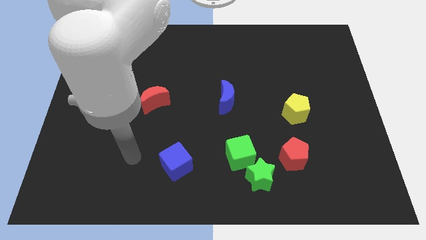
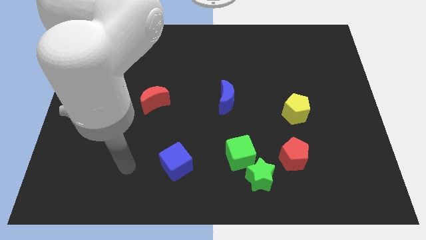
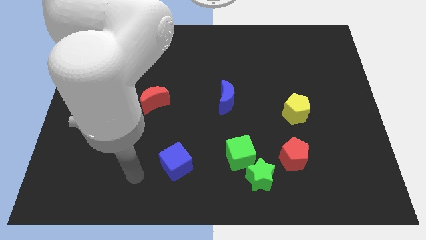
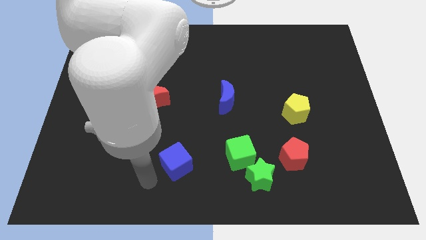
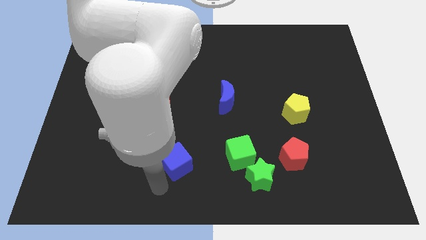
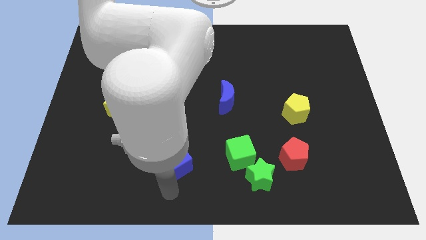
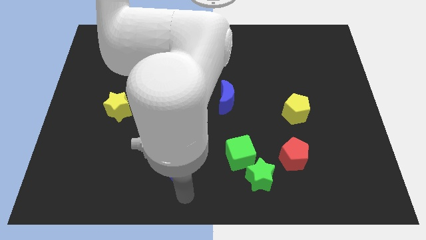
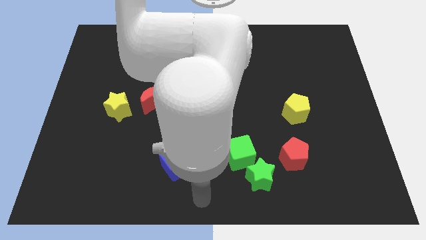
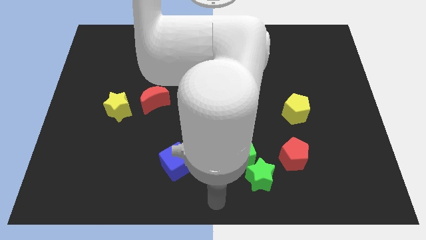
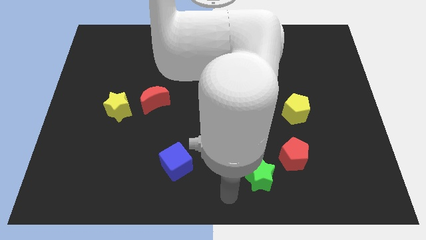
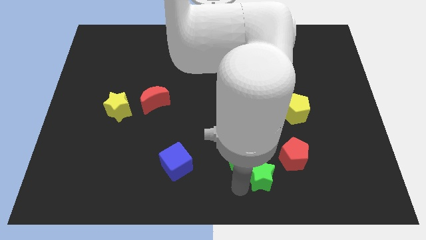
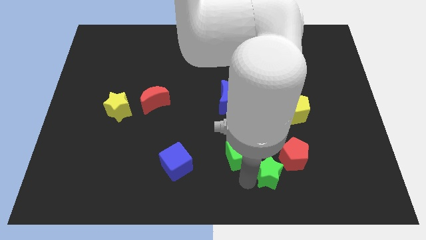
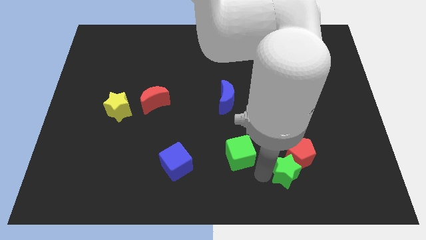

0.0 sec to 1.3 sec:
pull the green cube apart from the green star

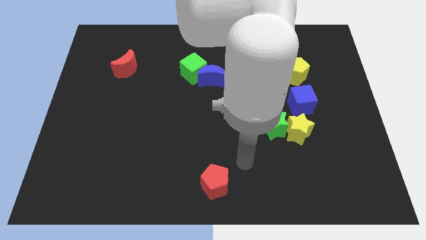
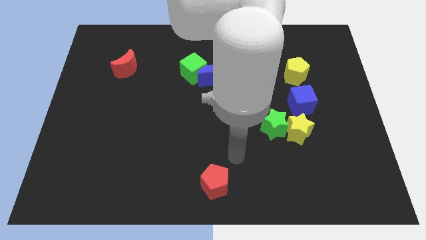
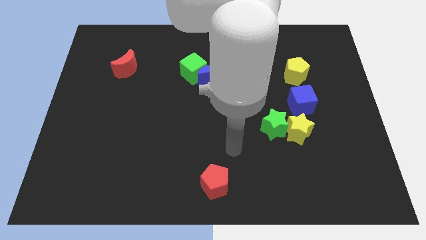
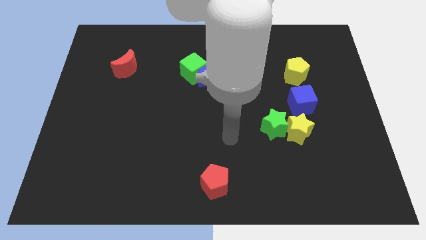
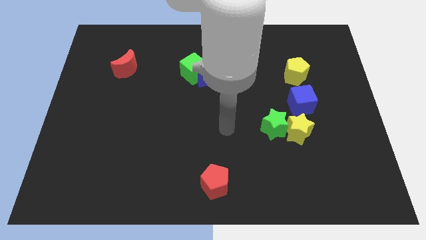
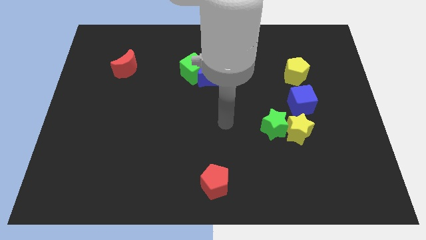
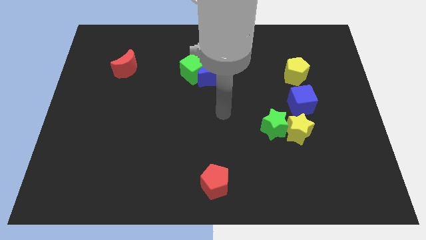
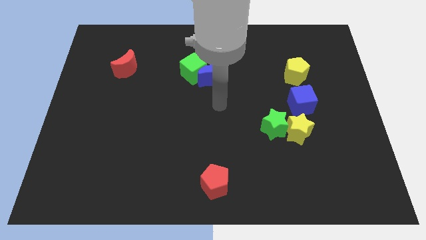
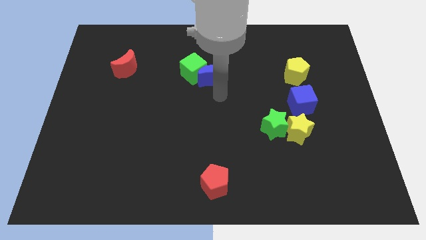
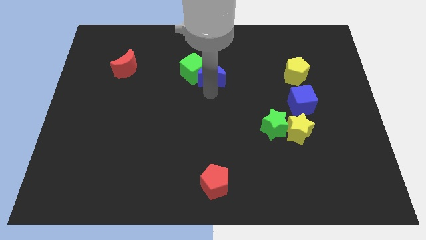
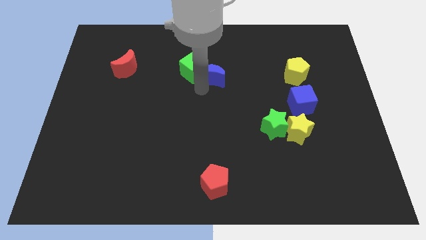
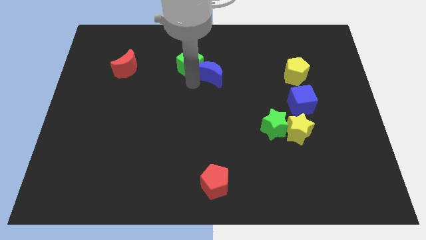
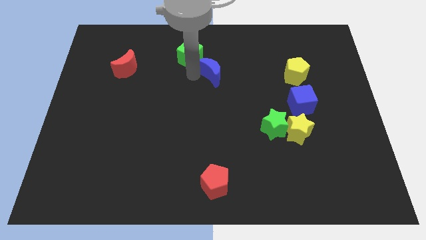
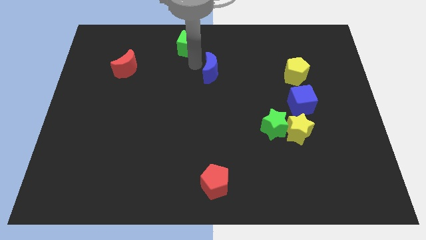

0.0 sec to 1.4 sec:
pull the blue moon apart from the green cube

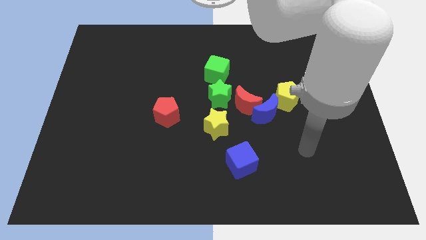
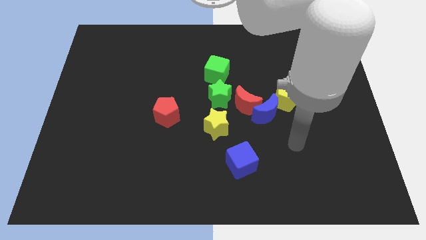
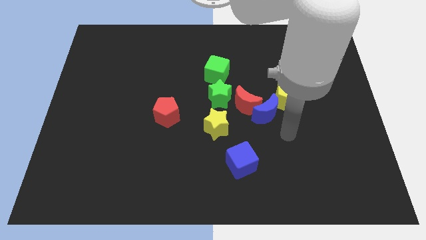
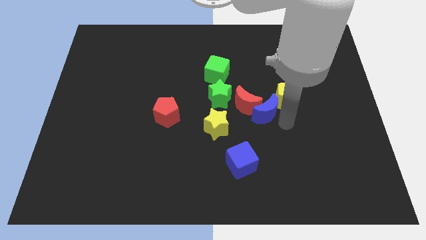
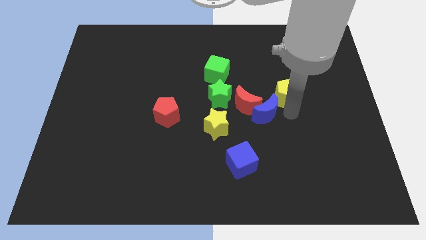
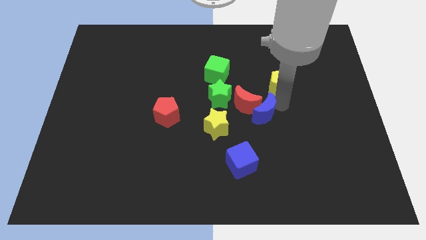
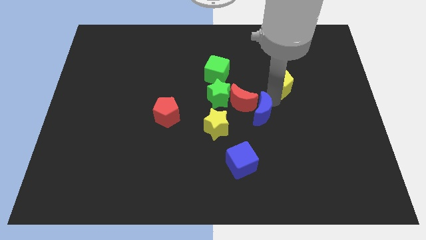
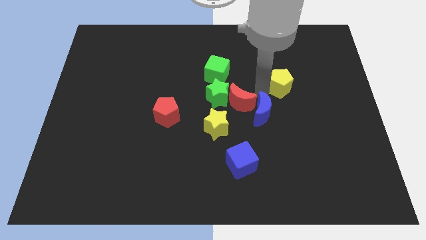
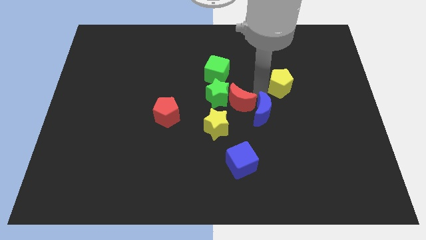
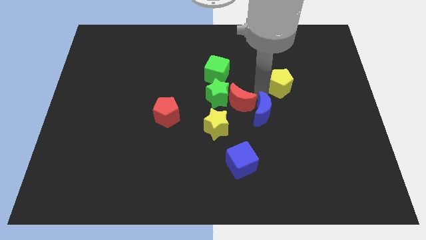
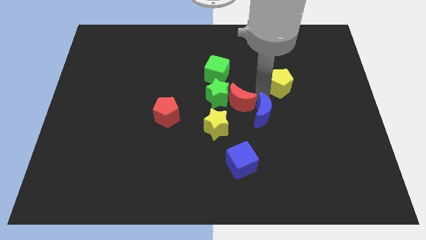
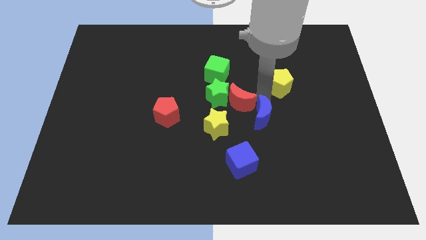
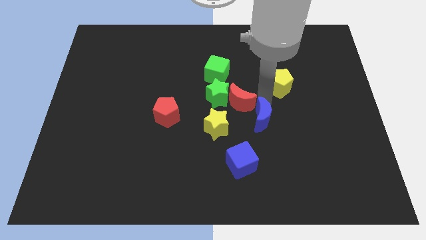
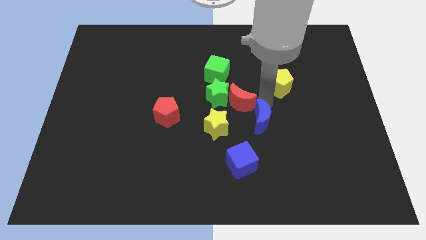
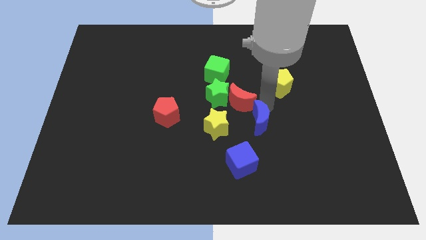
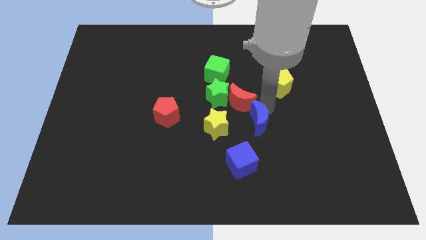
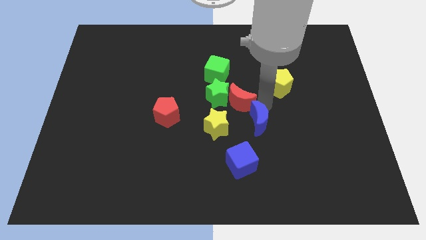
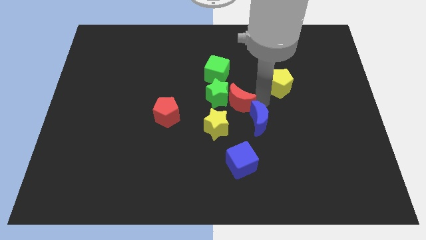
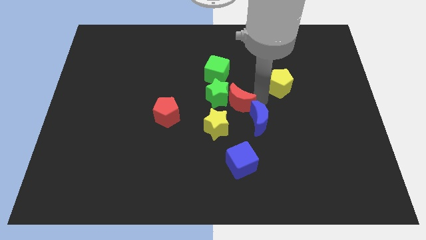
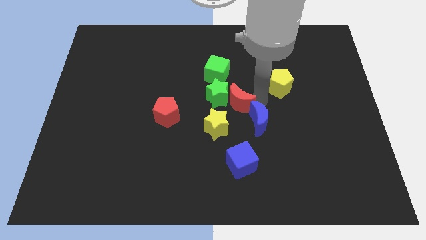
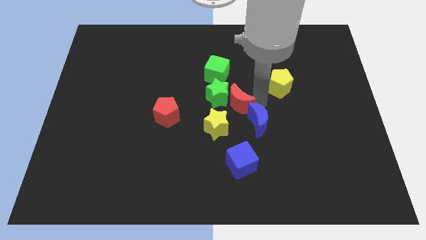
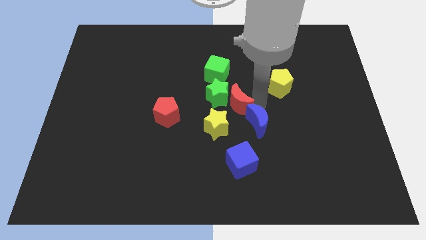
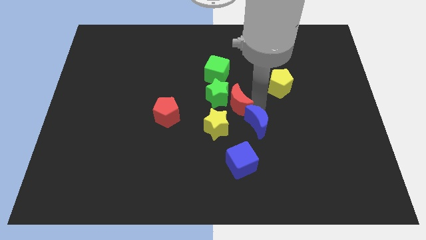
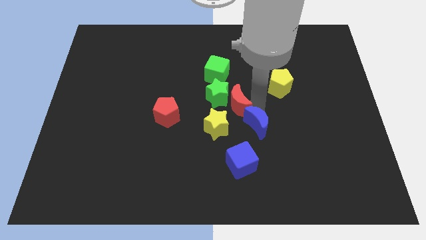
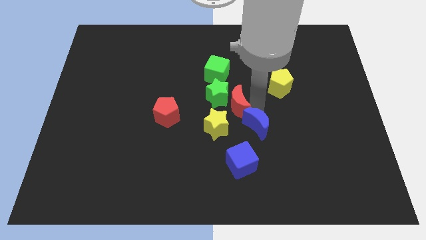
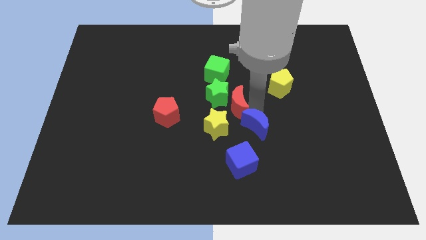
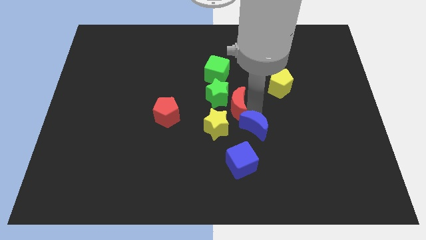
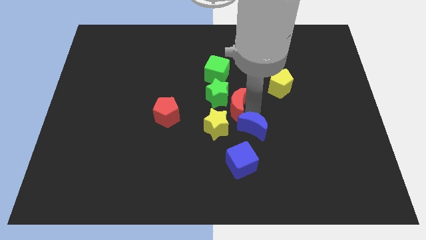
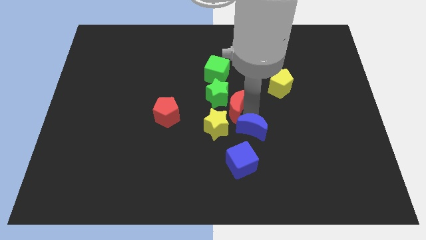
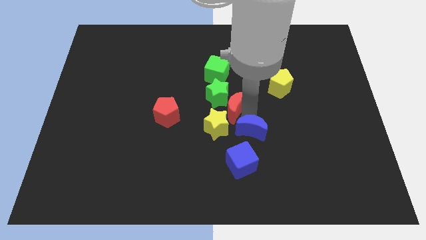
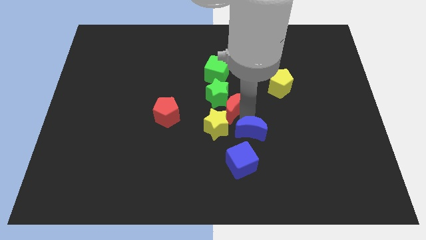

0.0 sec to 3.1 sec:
move the blue moon away from the red moon and yellow pentagon

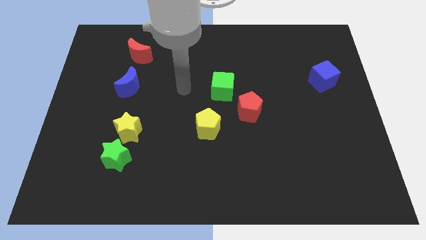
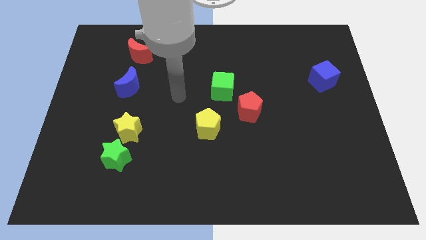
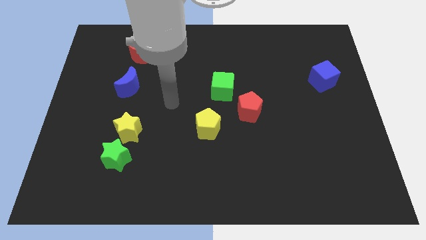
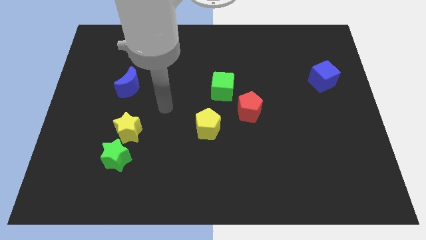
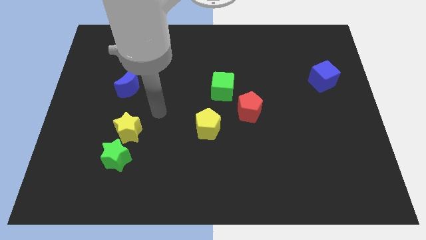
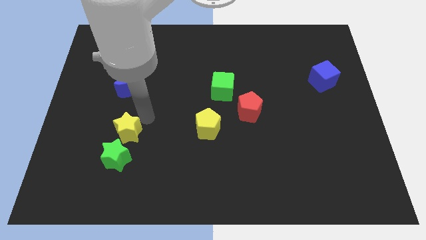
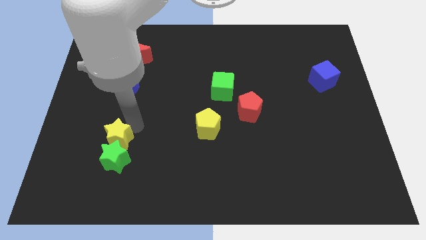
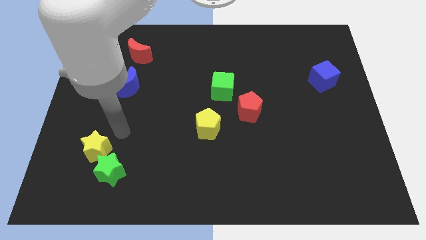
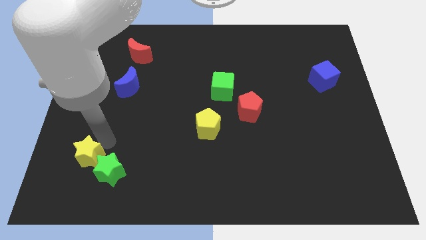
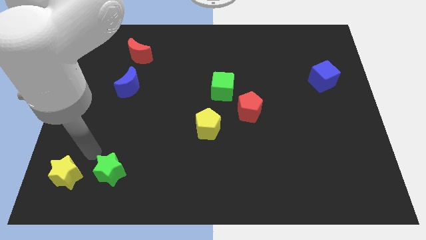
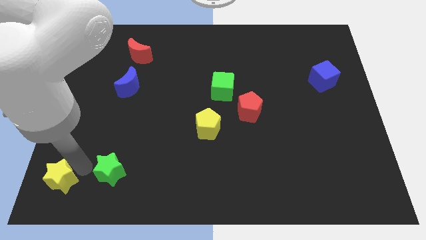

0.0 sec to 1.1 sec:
separate the green star from the yellow star

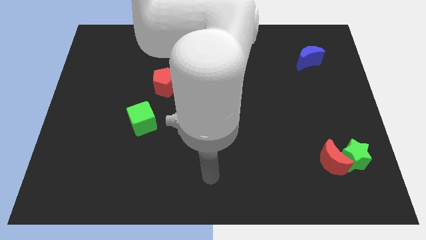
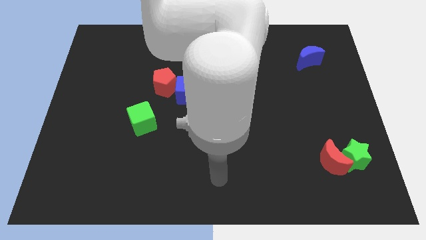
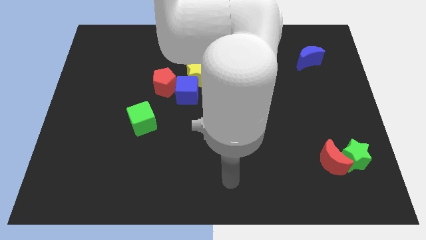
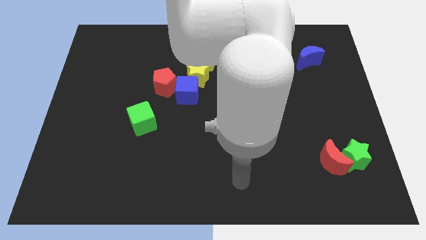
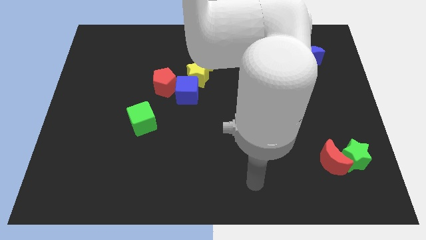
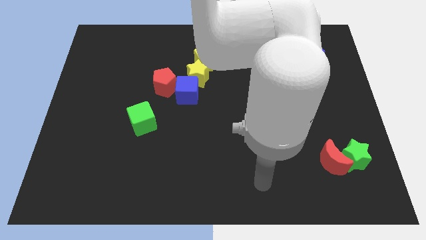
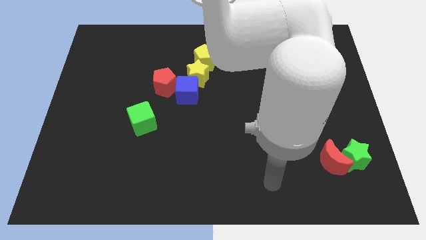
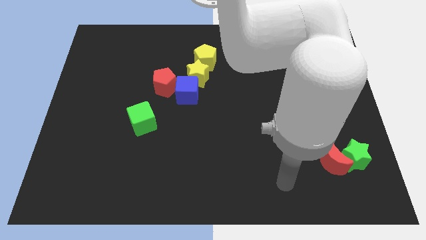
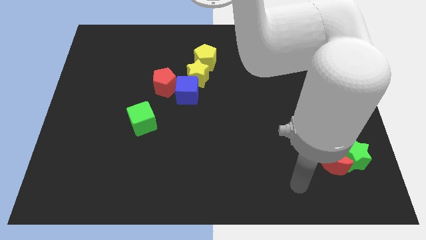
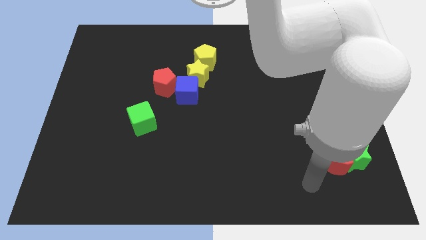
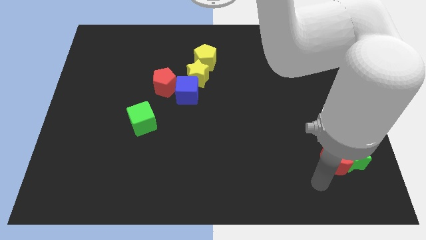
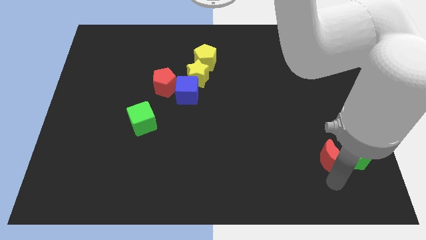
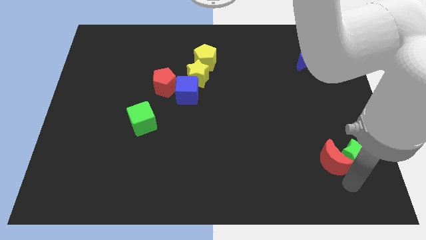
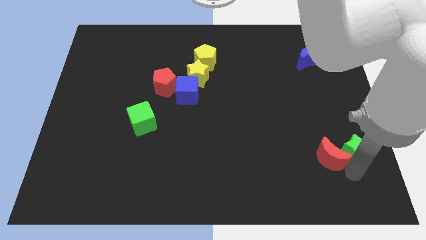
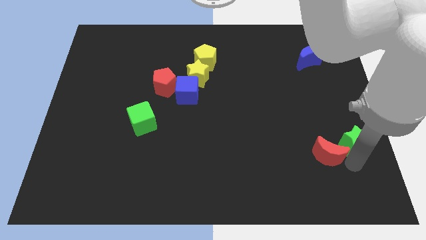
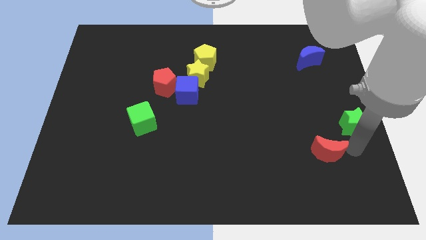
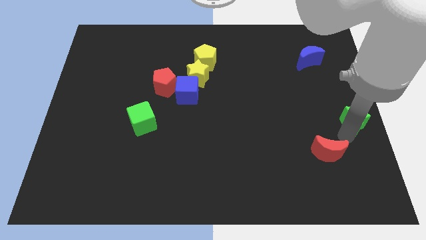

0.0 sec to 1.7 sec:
move the red moon away from the green star

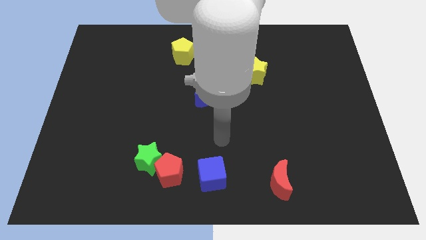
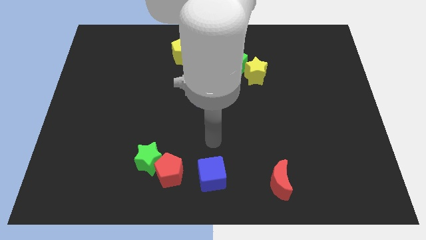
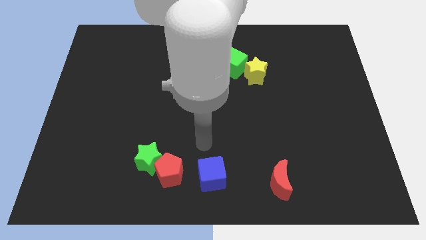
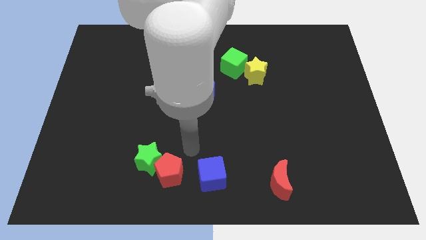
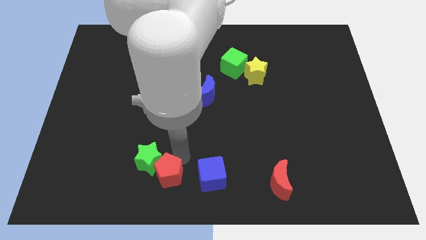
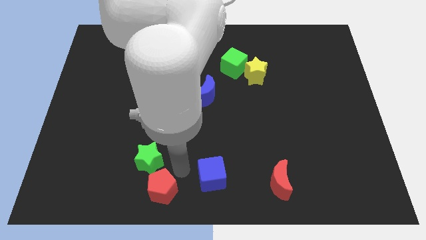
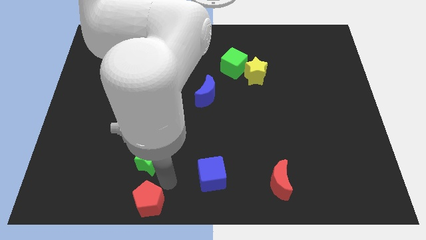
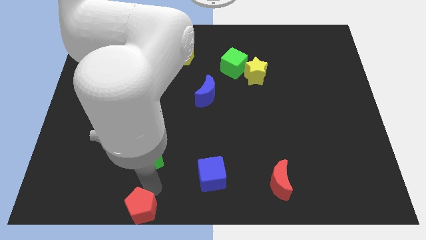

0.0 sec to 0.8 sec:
move the green star away from the red pentagon
